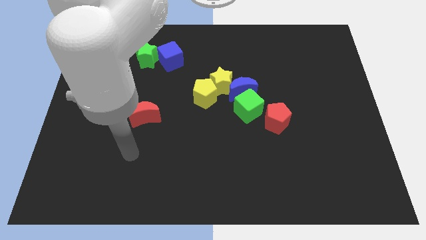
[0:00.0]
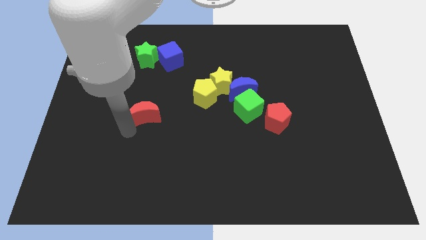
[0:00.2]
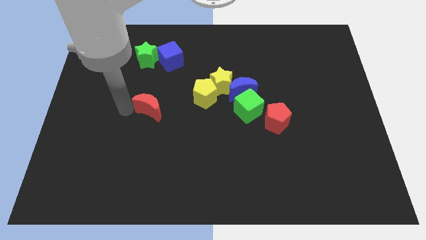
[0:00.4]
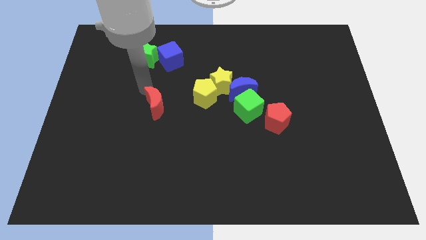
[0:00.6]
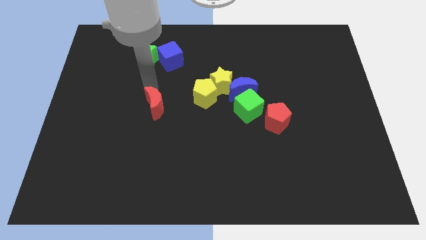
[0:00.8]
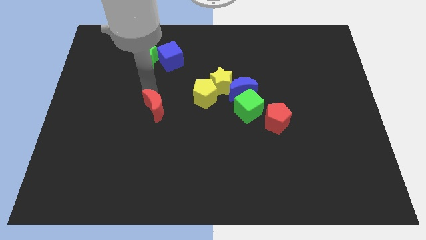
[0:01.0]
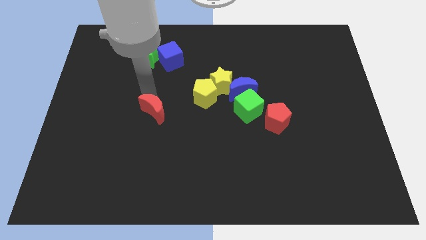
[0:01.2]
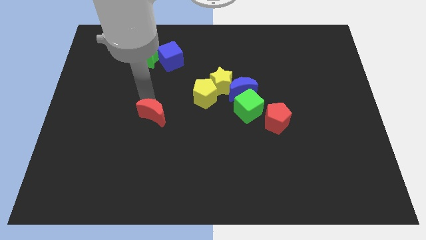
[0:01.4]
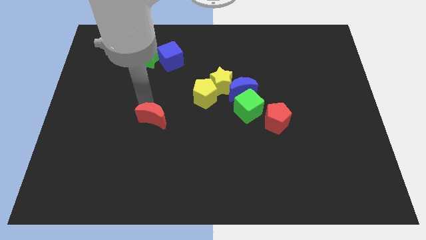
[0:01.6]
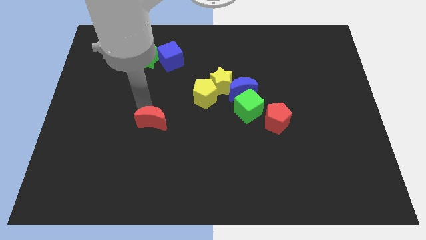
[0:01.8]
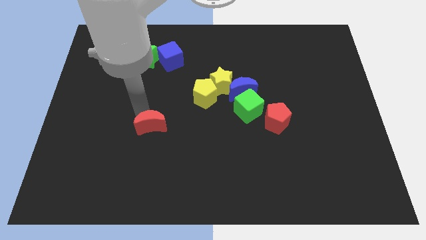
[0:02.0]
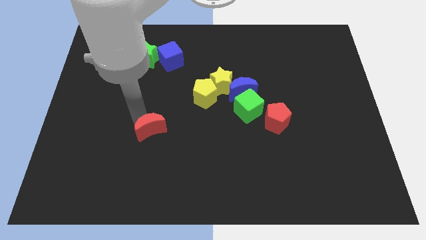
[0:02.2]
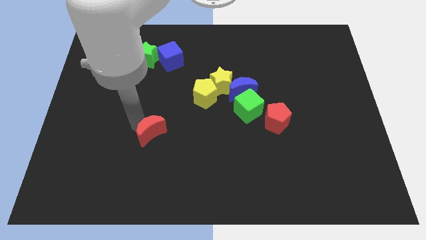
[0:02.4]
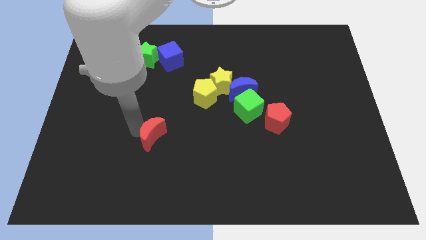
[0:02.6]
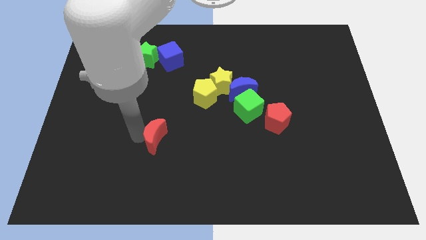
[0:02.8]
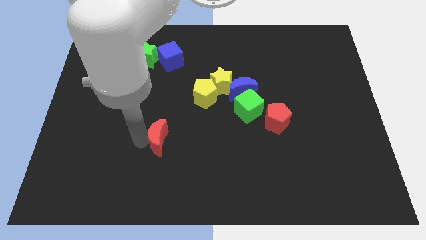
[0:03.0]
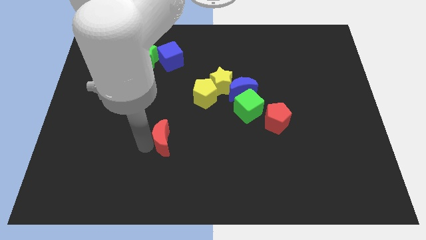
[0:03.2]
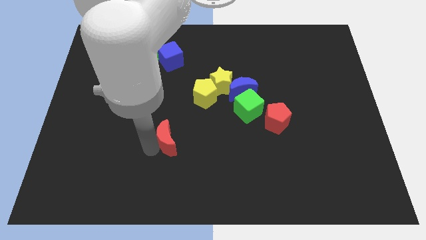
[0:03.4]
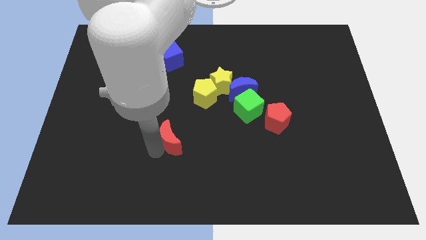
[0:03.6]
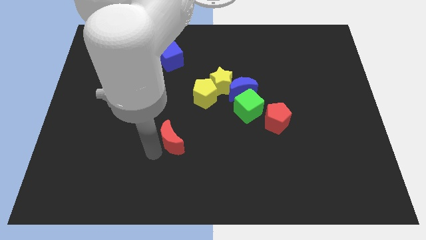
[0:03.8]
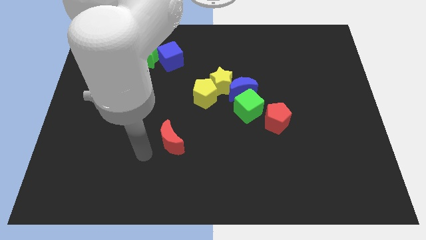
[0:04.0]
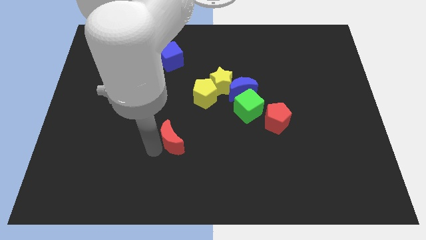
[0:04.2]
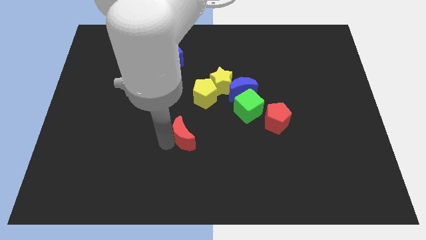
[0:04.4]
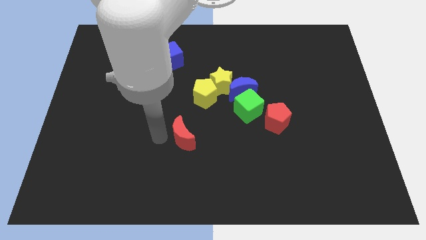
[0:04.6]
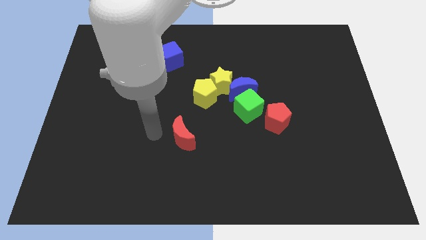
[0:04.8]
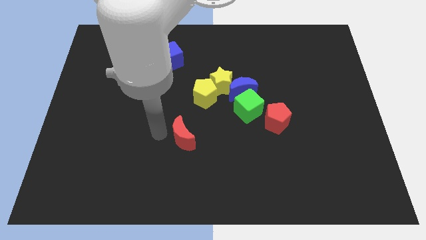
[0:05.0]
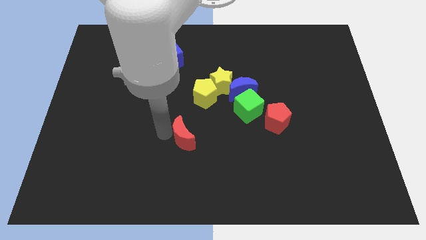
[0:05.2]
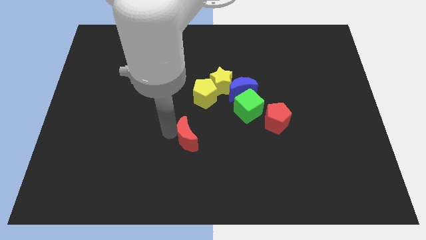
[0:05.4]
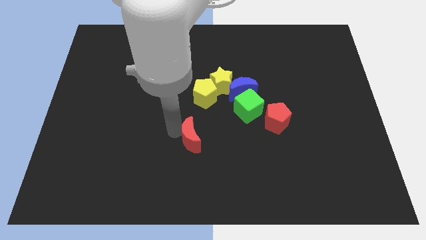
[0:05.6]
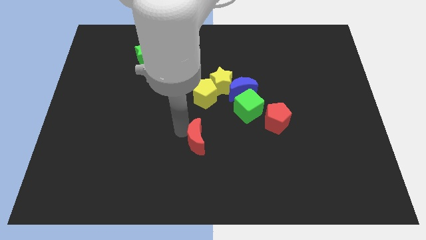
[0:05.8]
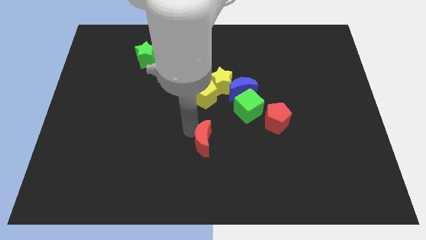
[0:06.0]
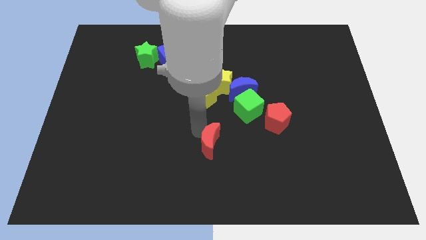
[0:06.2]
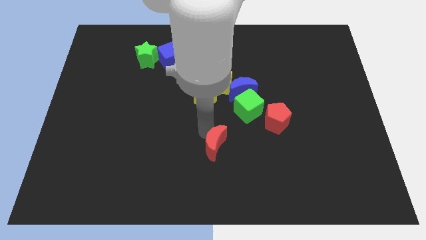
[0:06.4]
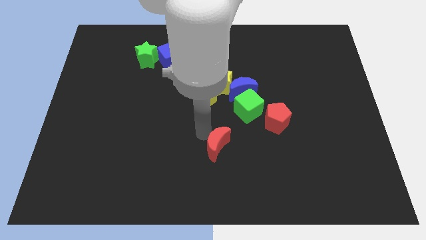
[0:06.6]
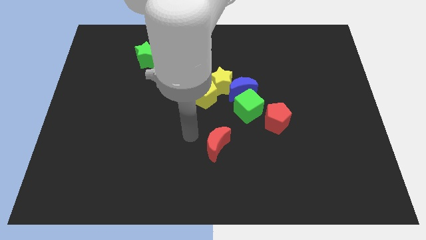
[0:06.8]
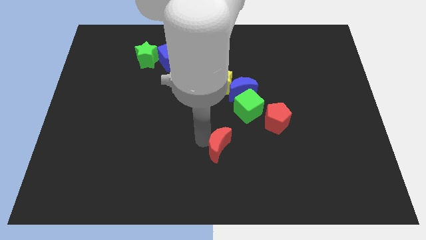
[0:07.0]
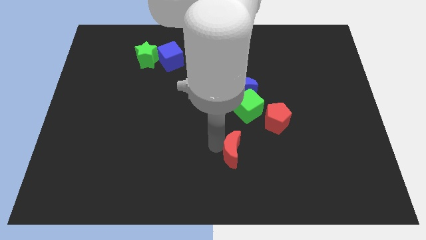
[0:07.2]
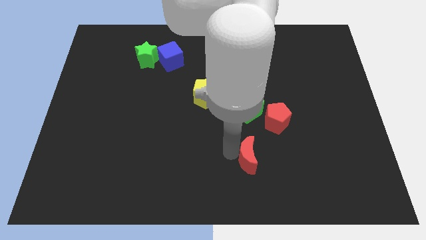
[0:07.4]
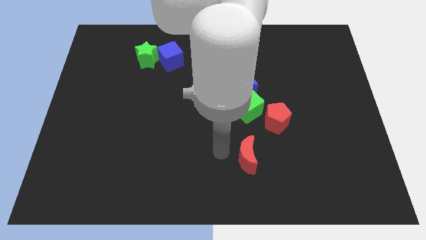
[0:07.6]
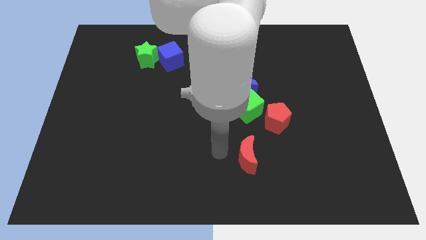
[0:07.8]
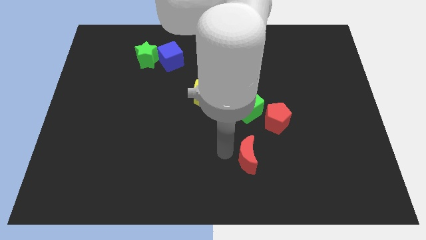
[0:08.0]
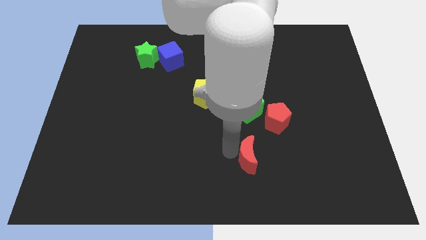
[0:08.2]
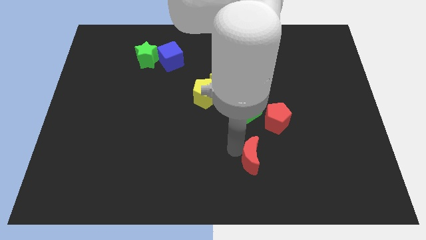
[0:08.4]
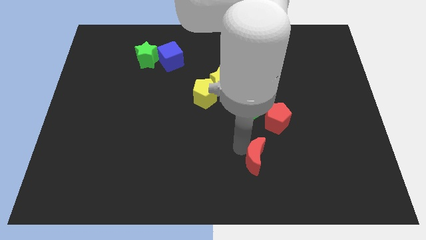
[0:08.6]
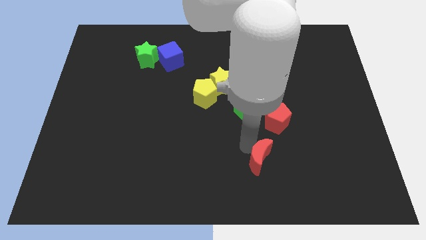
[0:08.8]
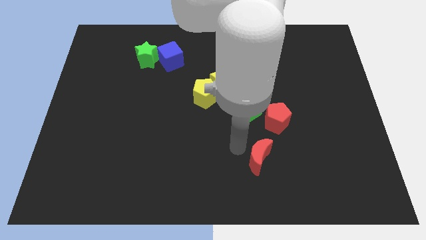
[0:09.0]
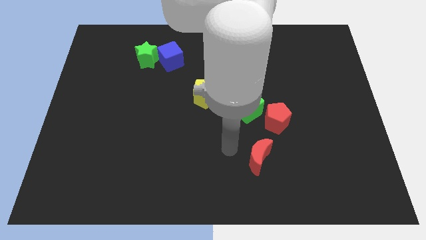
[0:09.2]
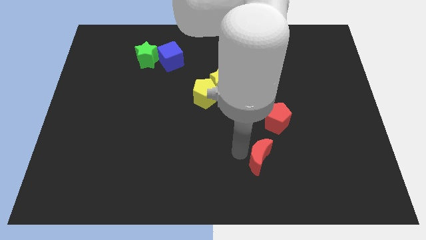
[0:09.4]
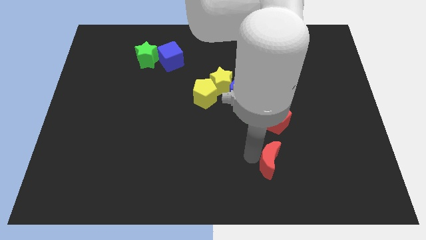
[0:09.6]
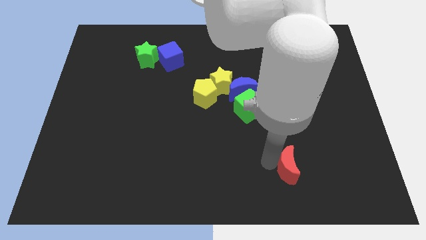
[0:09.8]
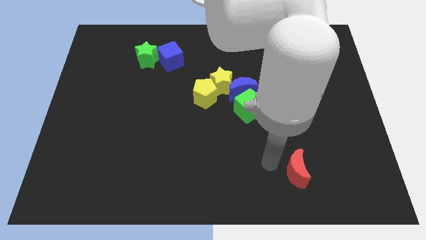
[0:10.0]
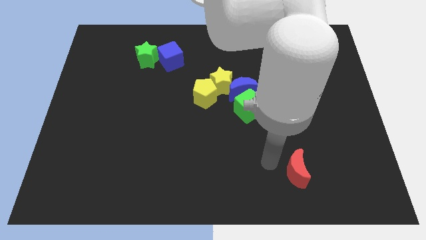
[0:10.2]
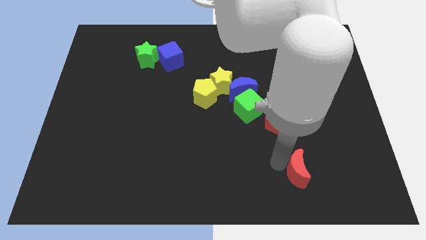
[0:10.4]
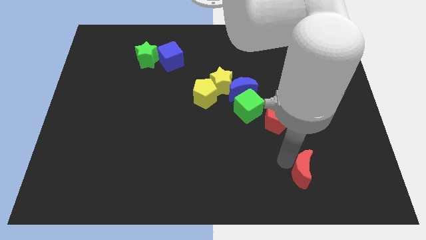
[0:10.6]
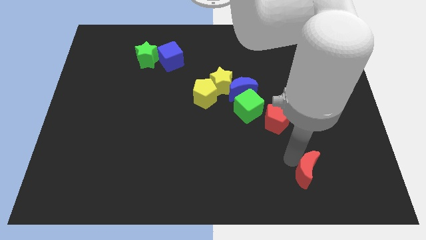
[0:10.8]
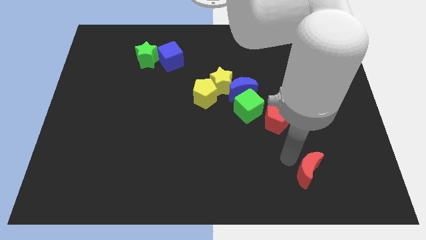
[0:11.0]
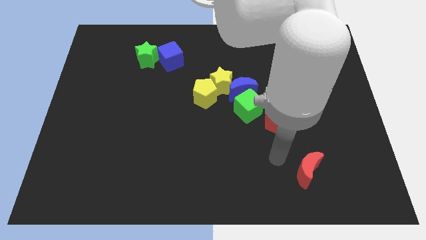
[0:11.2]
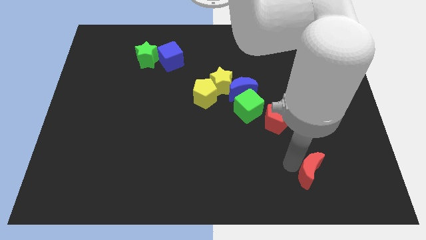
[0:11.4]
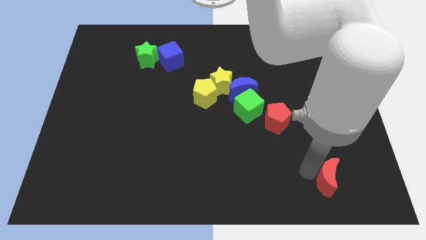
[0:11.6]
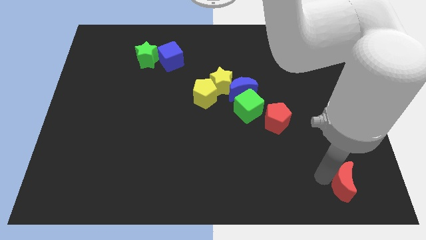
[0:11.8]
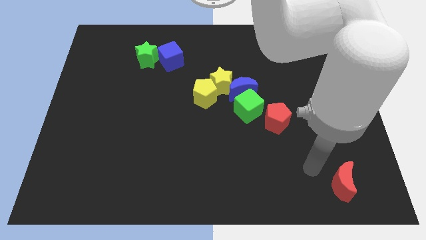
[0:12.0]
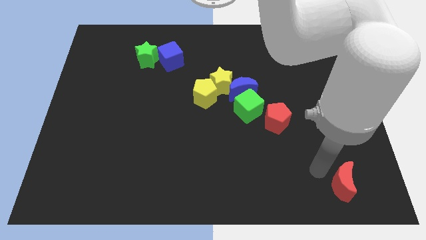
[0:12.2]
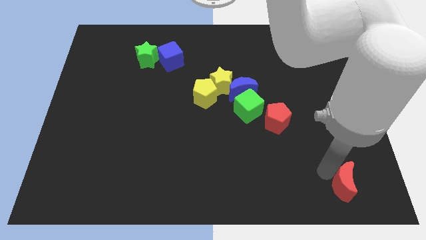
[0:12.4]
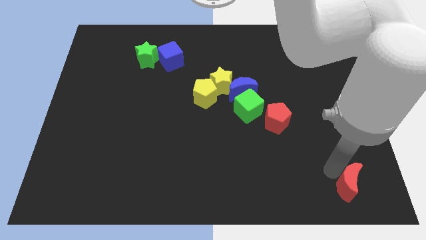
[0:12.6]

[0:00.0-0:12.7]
slide the red moon to the bottom right corner
